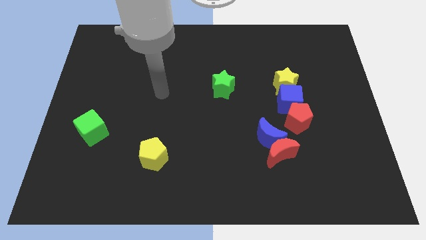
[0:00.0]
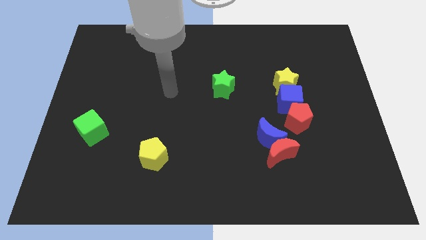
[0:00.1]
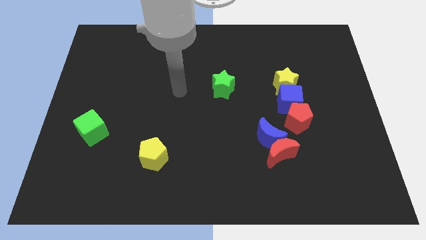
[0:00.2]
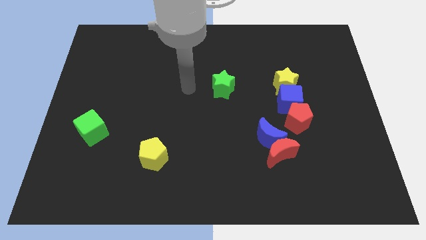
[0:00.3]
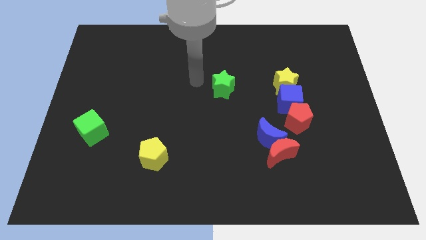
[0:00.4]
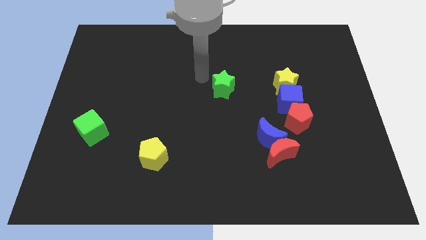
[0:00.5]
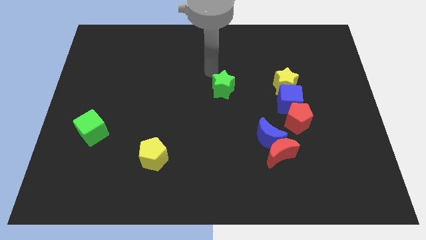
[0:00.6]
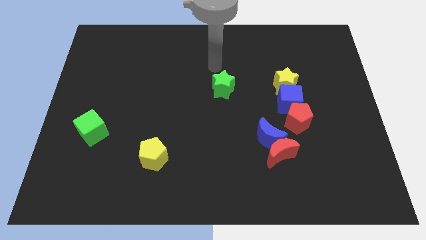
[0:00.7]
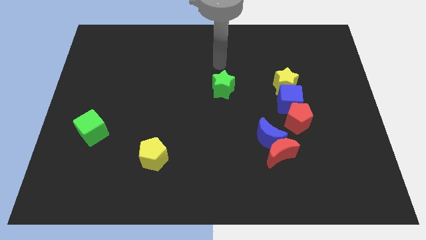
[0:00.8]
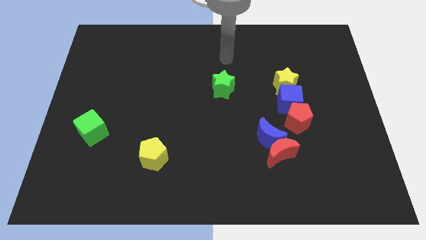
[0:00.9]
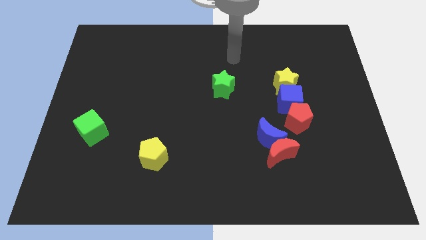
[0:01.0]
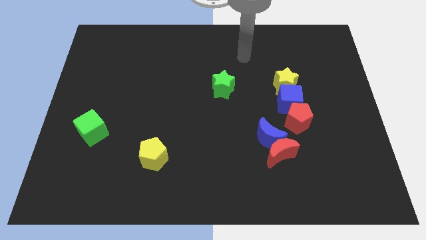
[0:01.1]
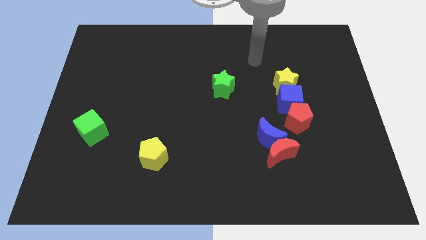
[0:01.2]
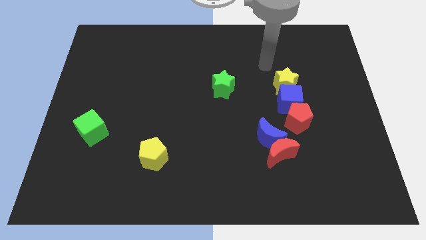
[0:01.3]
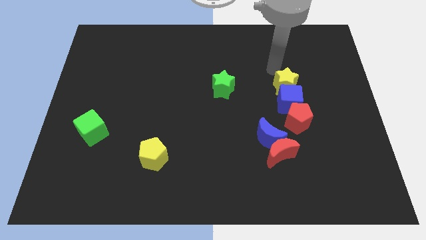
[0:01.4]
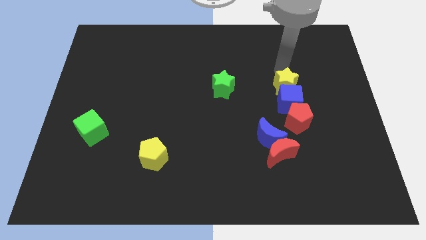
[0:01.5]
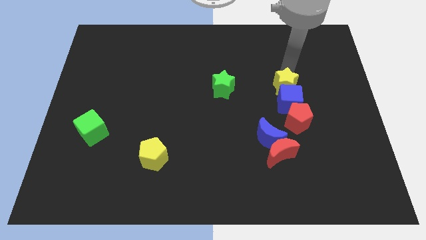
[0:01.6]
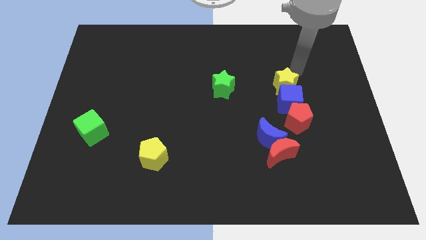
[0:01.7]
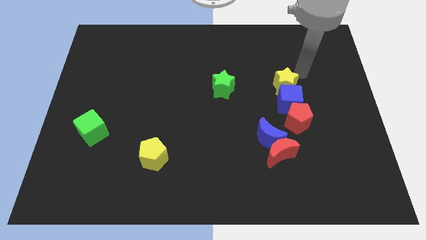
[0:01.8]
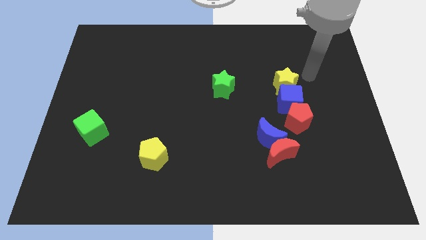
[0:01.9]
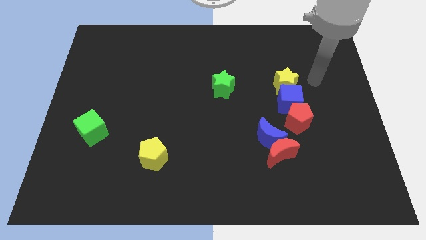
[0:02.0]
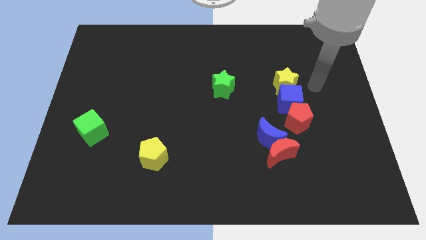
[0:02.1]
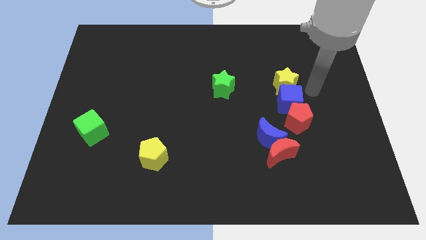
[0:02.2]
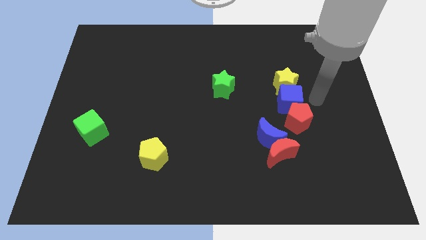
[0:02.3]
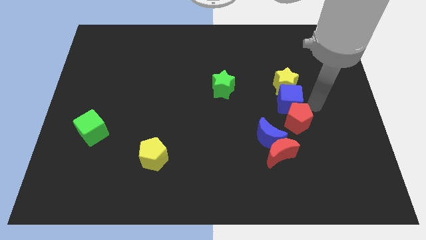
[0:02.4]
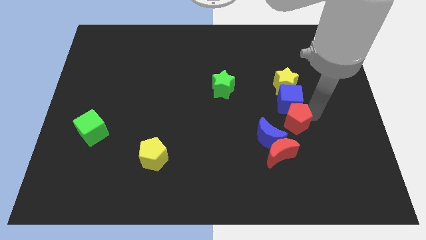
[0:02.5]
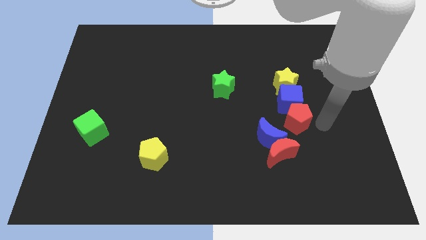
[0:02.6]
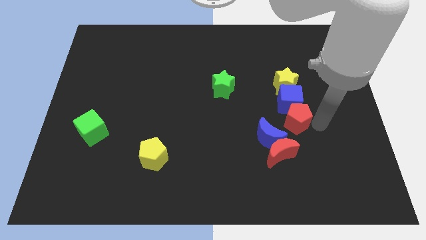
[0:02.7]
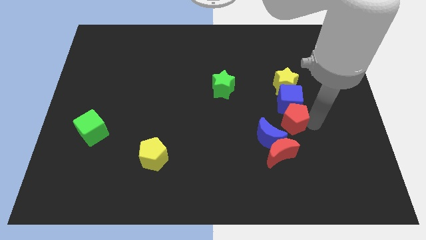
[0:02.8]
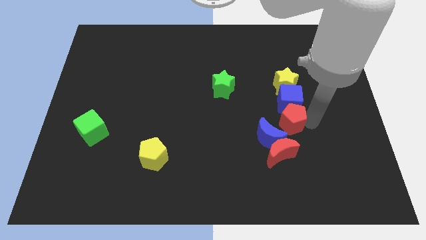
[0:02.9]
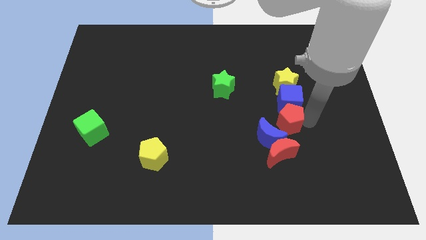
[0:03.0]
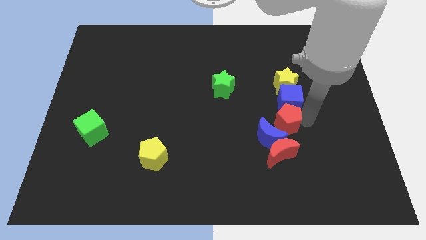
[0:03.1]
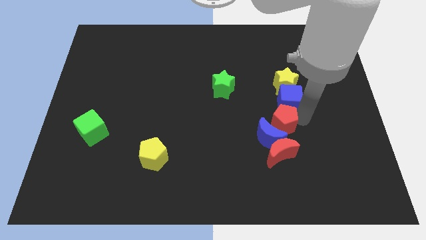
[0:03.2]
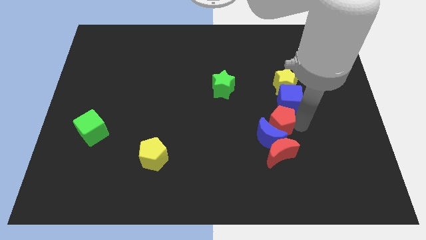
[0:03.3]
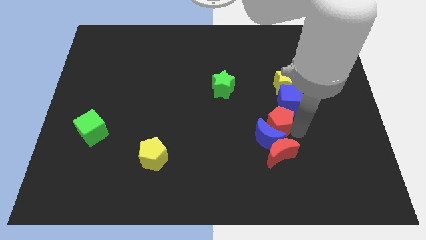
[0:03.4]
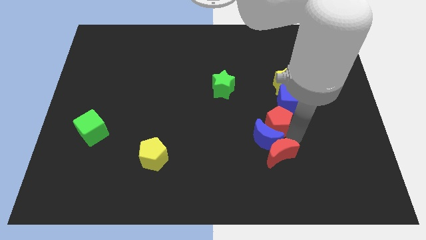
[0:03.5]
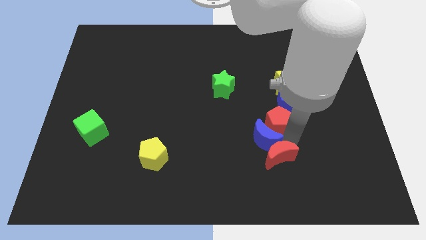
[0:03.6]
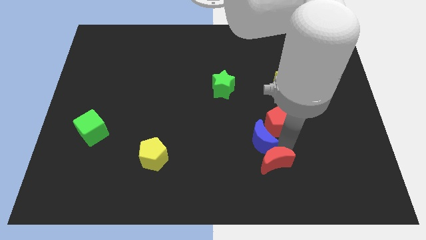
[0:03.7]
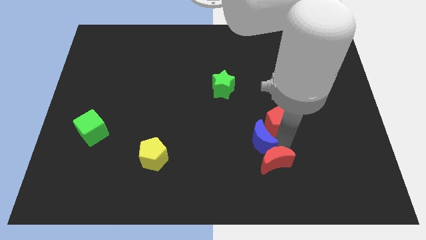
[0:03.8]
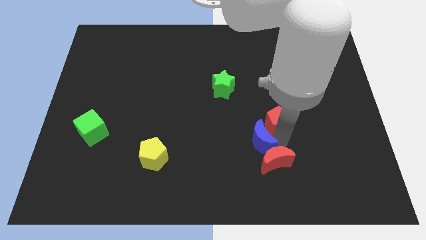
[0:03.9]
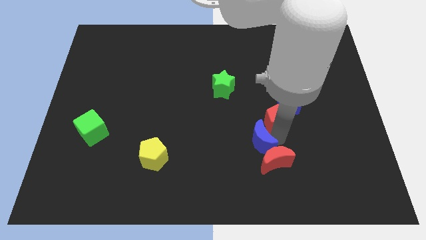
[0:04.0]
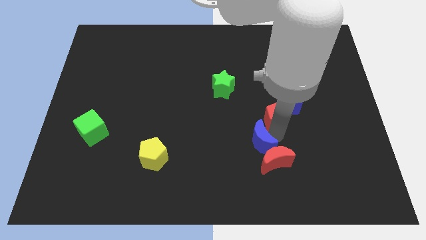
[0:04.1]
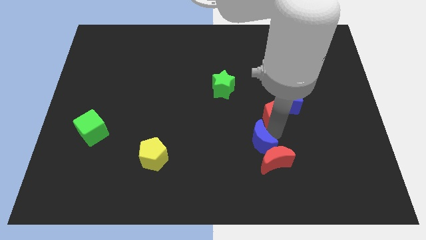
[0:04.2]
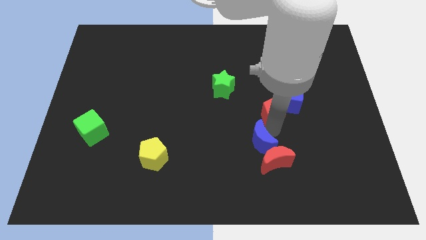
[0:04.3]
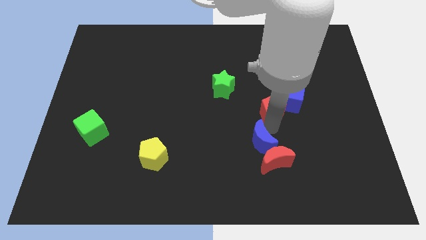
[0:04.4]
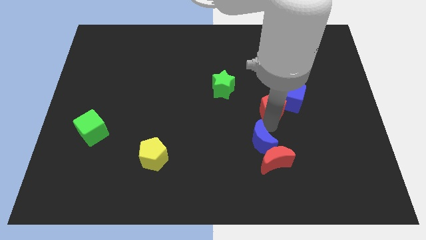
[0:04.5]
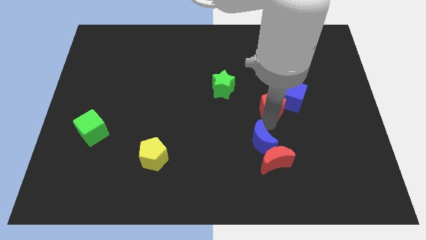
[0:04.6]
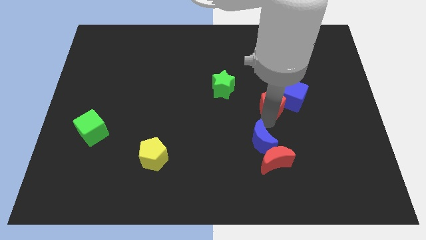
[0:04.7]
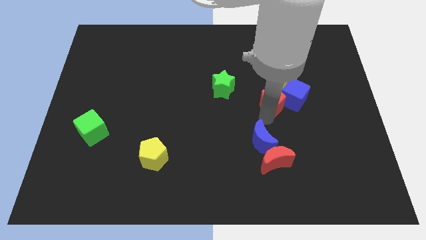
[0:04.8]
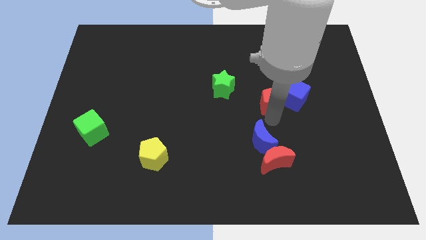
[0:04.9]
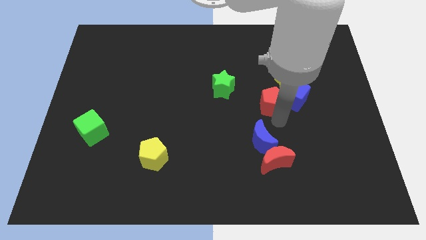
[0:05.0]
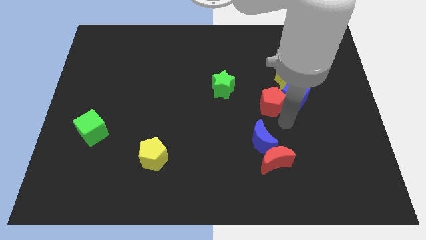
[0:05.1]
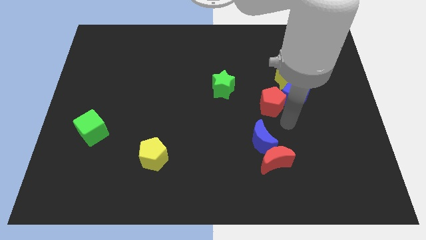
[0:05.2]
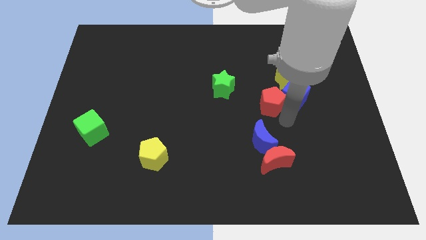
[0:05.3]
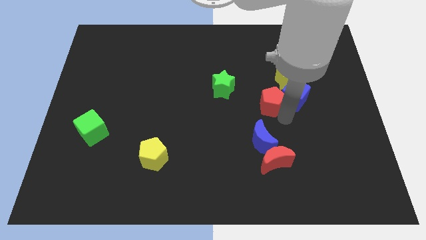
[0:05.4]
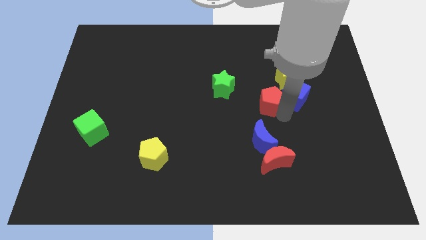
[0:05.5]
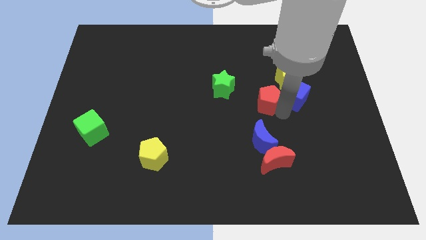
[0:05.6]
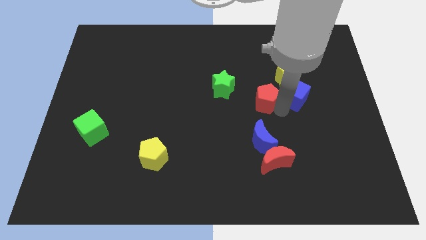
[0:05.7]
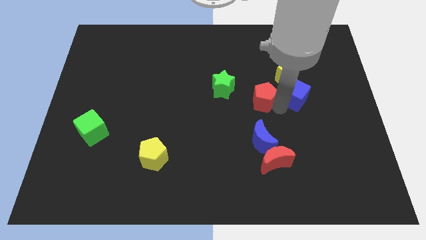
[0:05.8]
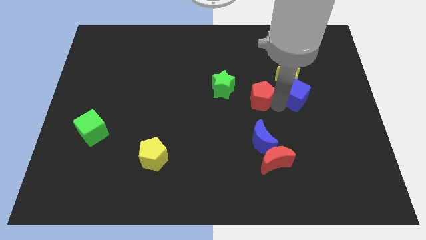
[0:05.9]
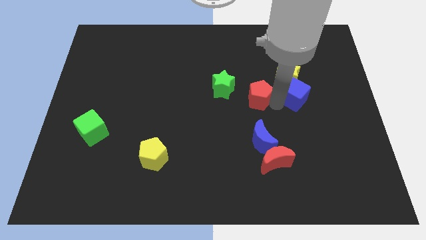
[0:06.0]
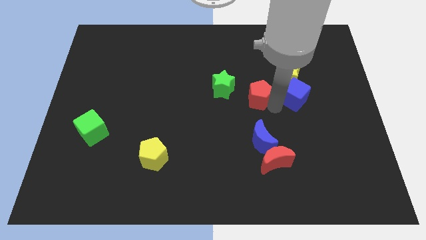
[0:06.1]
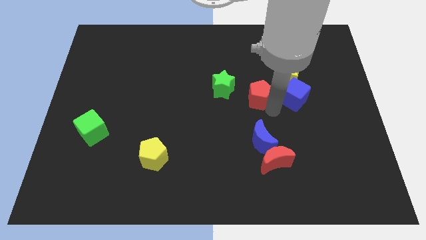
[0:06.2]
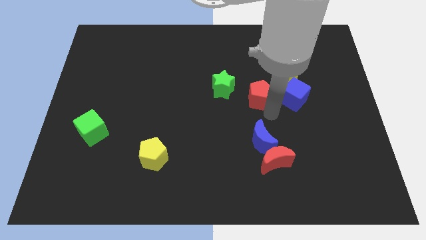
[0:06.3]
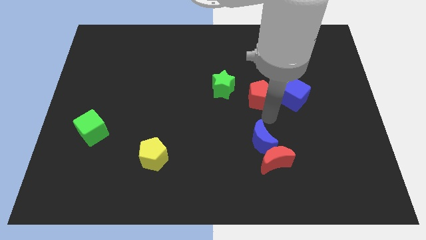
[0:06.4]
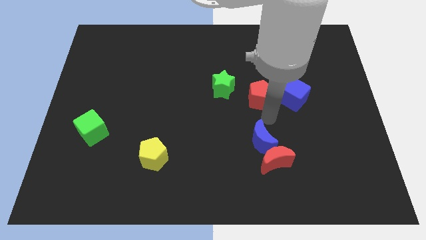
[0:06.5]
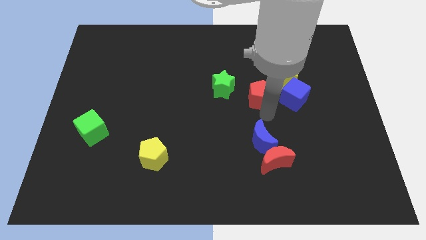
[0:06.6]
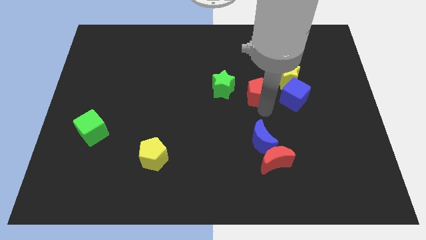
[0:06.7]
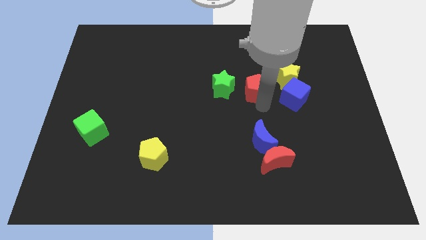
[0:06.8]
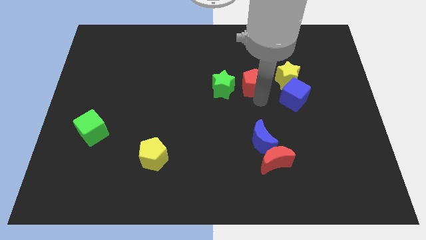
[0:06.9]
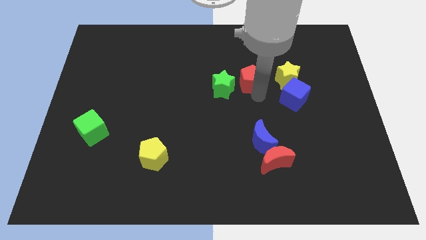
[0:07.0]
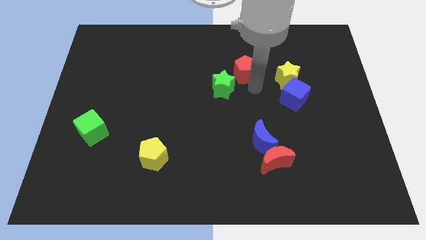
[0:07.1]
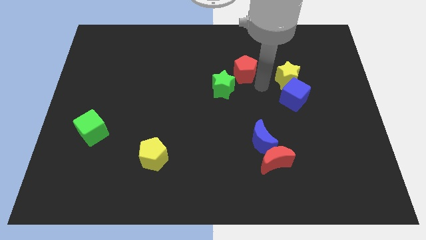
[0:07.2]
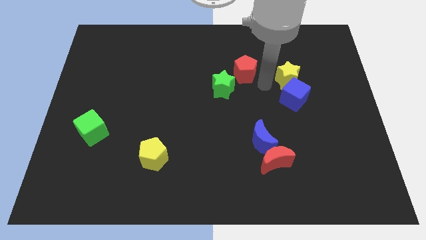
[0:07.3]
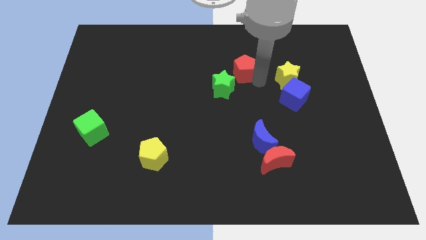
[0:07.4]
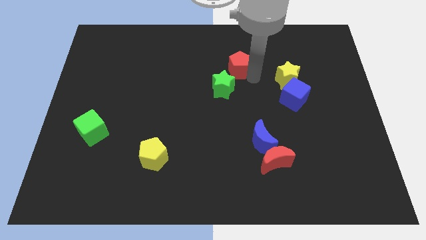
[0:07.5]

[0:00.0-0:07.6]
move the red pentagon to the top of the green star
